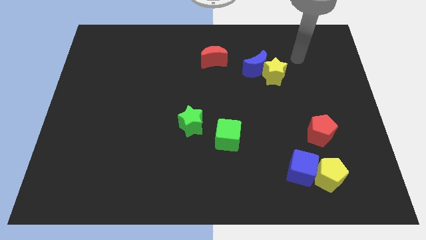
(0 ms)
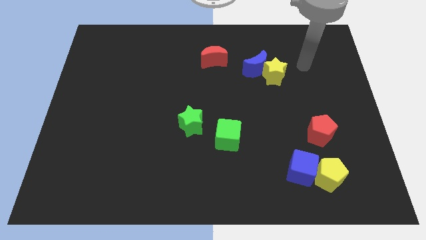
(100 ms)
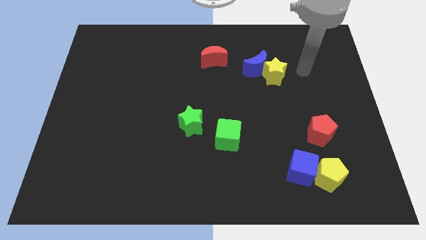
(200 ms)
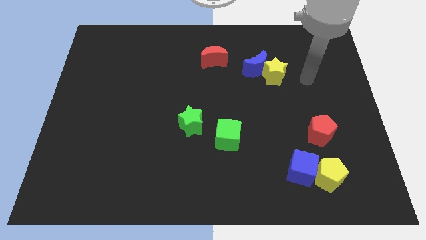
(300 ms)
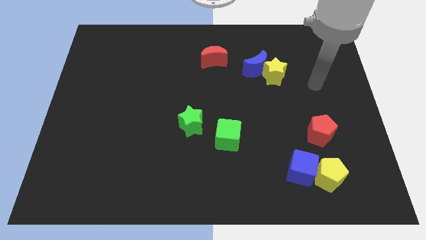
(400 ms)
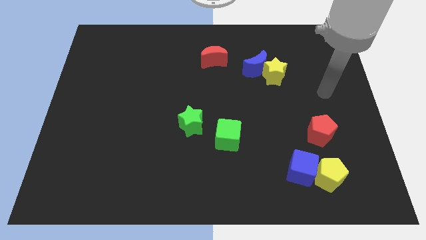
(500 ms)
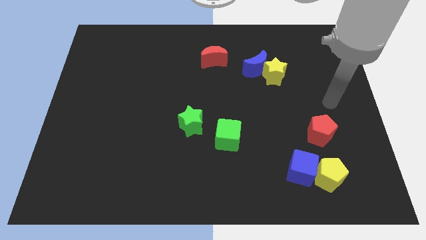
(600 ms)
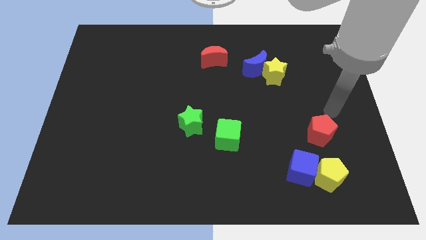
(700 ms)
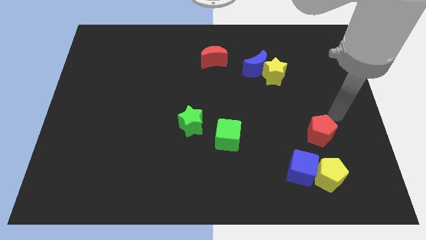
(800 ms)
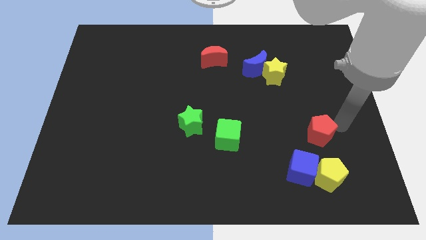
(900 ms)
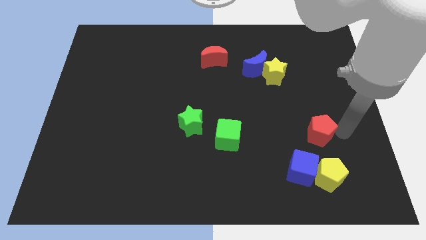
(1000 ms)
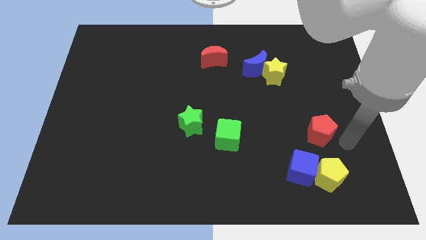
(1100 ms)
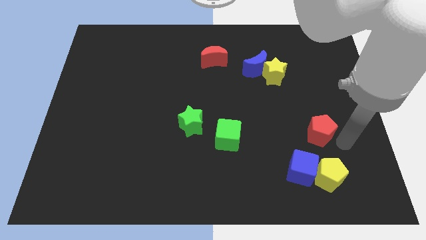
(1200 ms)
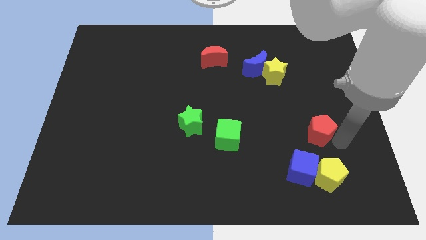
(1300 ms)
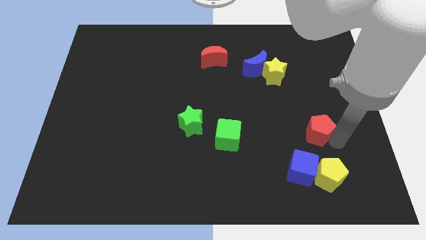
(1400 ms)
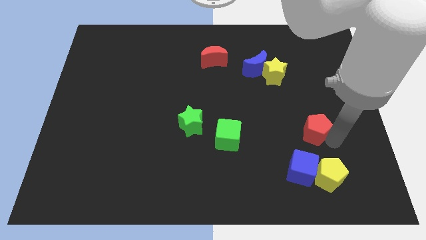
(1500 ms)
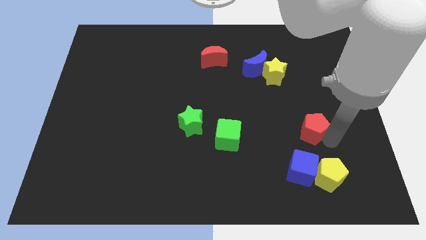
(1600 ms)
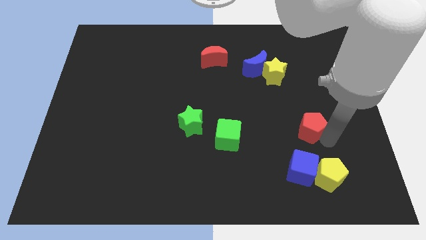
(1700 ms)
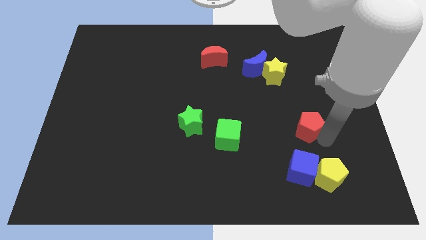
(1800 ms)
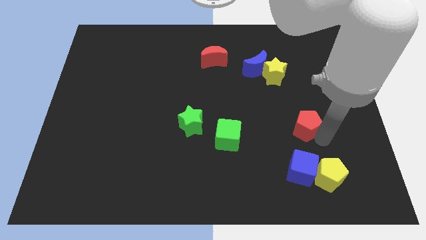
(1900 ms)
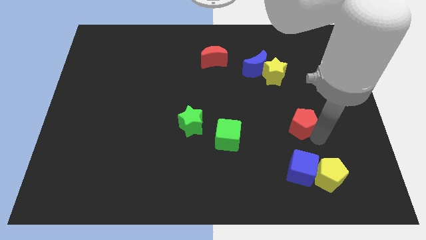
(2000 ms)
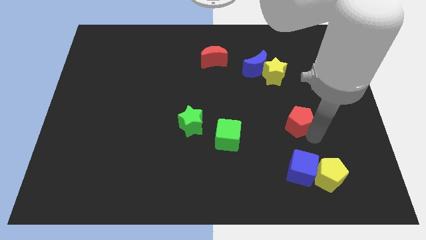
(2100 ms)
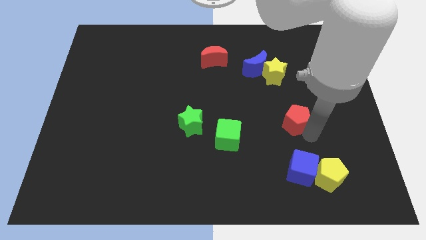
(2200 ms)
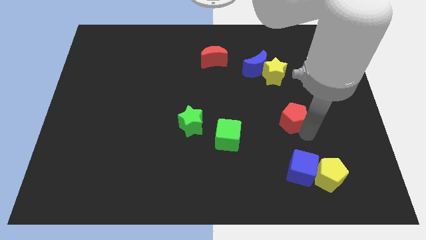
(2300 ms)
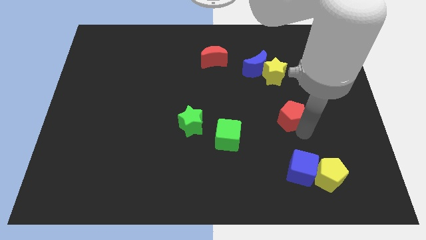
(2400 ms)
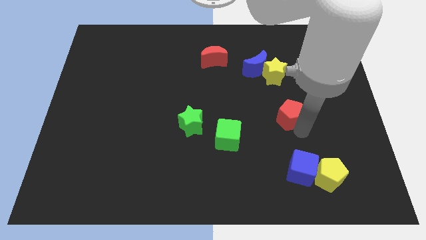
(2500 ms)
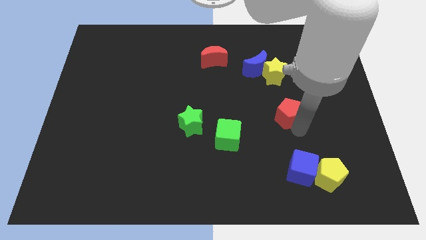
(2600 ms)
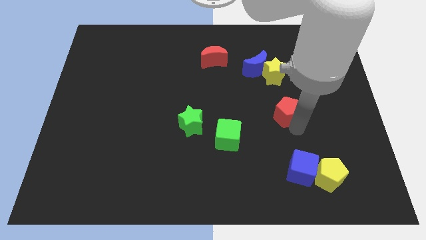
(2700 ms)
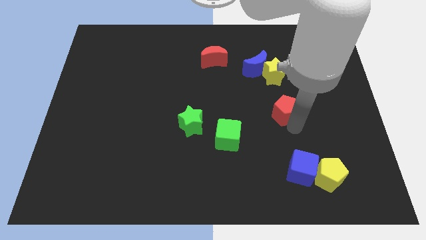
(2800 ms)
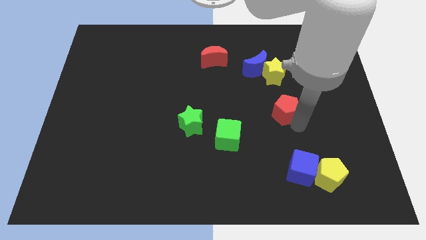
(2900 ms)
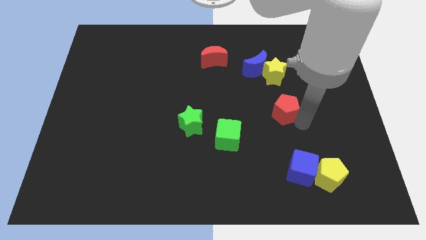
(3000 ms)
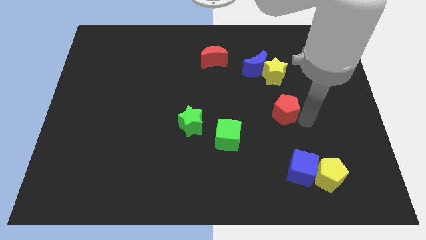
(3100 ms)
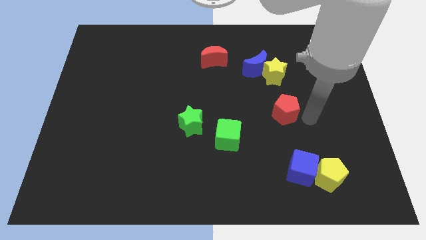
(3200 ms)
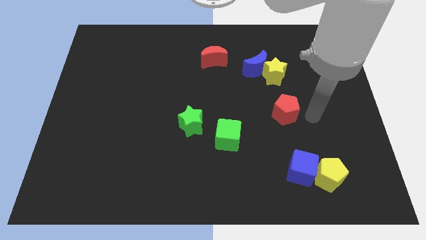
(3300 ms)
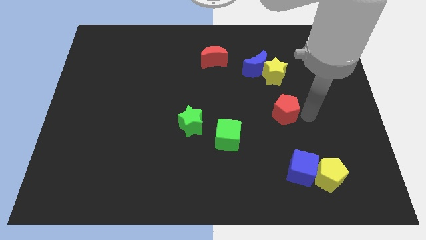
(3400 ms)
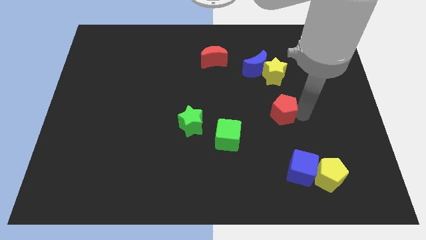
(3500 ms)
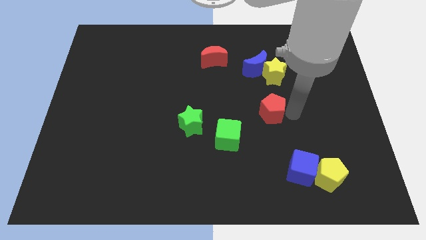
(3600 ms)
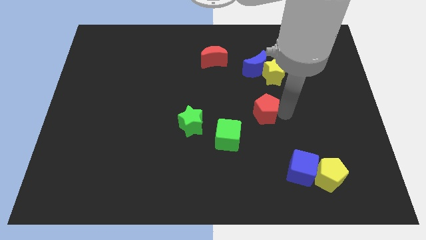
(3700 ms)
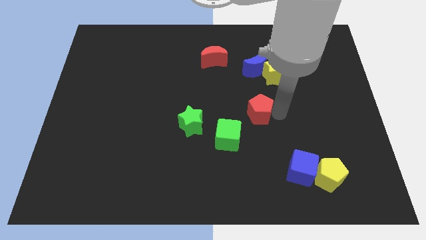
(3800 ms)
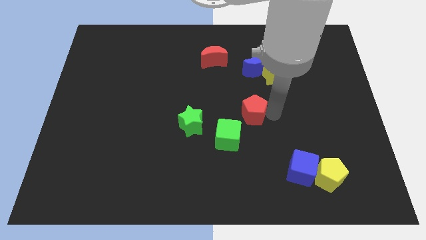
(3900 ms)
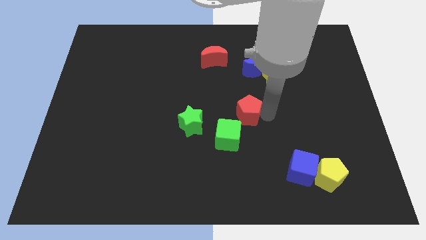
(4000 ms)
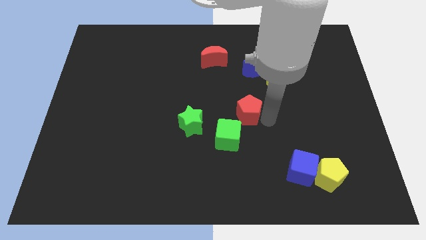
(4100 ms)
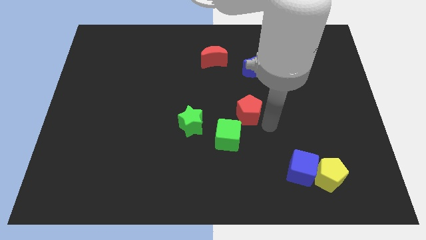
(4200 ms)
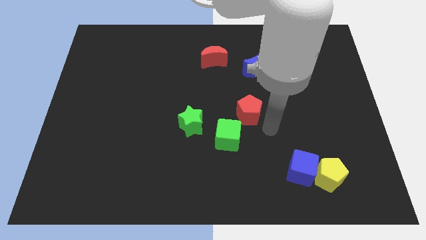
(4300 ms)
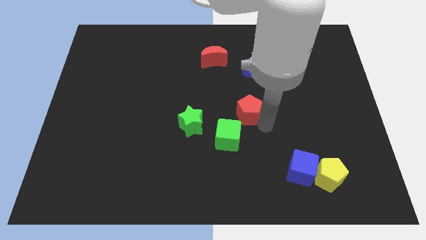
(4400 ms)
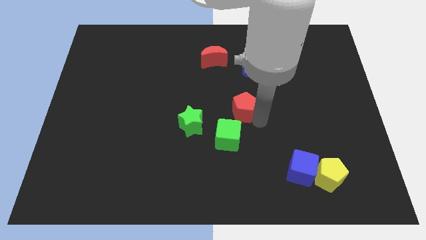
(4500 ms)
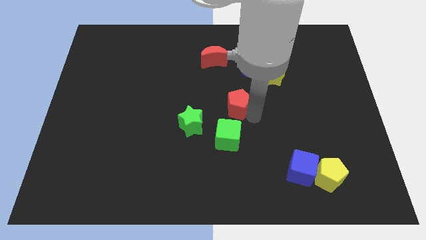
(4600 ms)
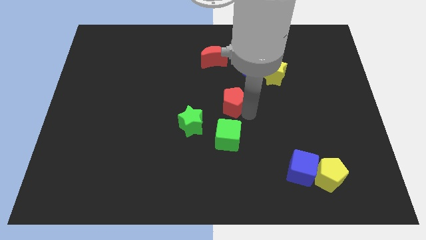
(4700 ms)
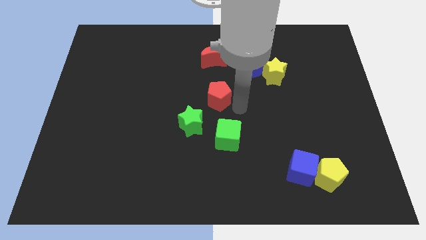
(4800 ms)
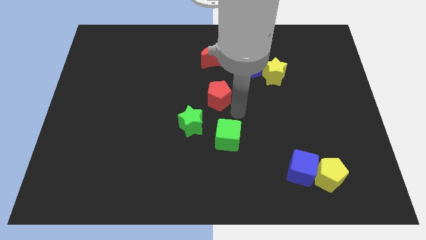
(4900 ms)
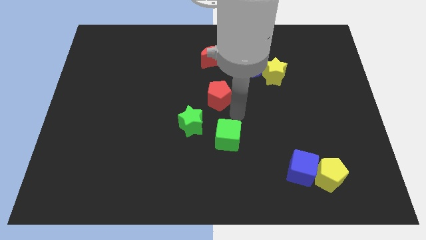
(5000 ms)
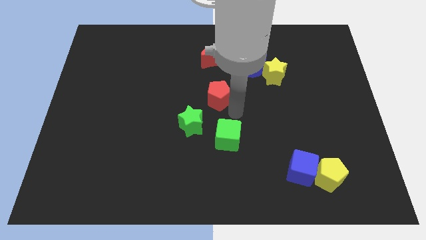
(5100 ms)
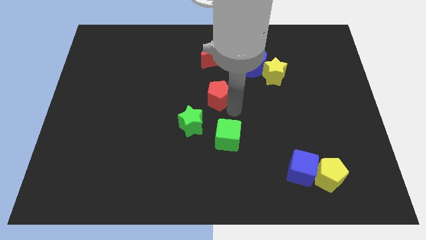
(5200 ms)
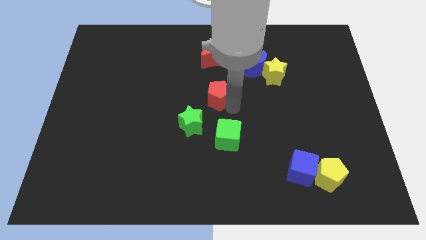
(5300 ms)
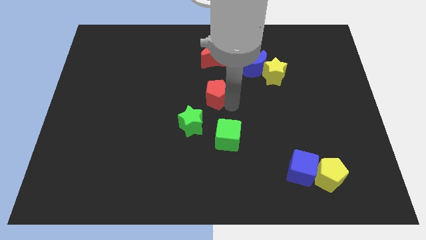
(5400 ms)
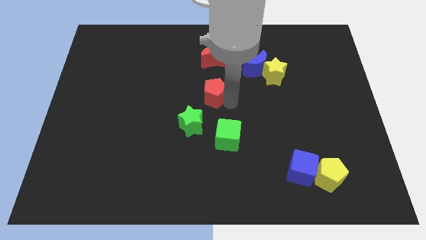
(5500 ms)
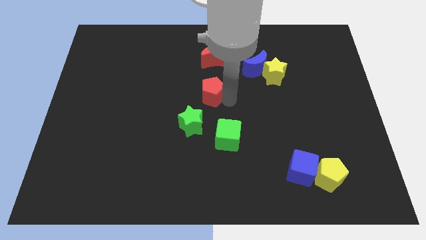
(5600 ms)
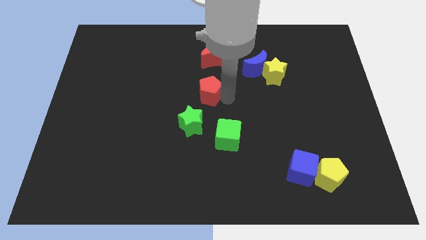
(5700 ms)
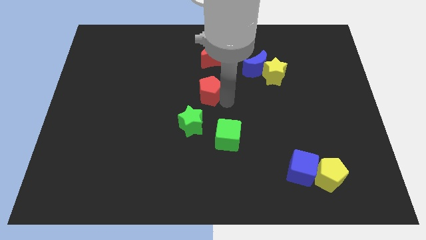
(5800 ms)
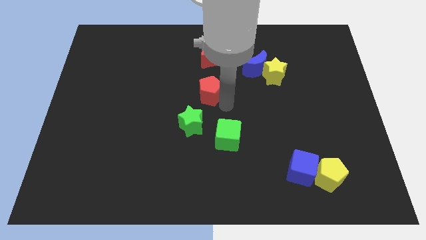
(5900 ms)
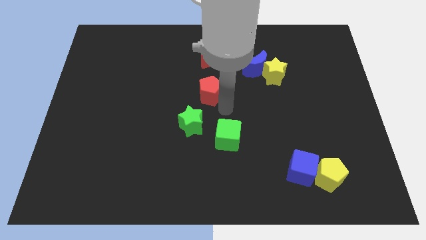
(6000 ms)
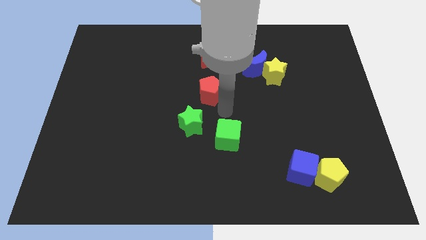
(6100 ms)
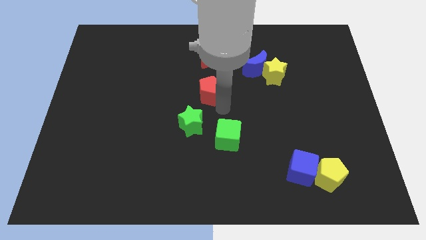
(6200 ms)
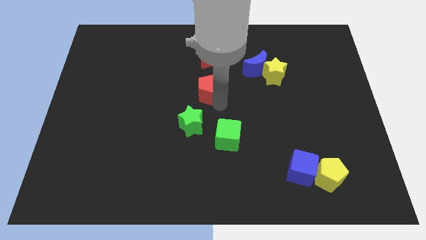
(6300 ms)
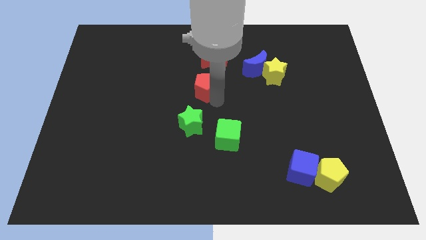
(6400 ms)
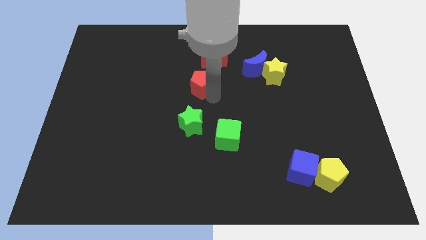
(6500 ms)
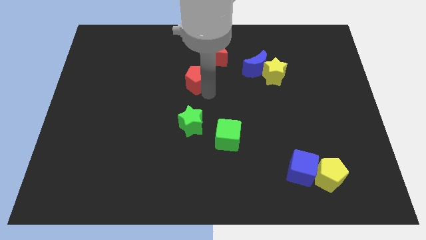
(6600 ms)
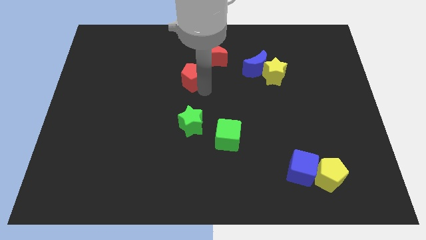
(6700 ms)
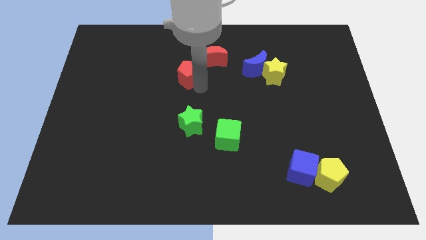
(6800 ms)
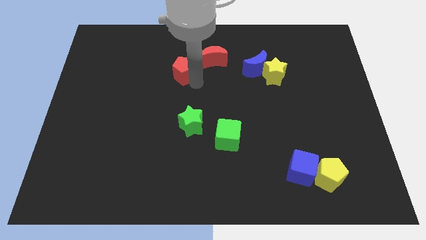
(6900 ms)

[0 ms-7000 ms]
put the red pentagon to the left of the red moon
